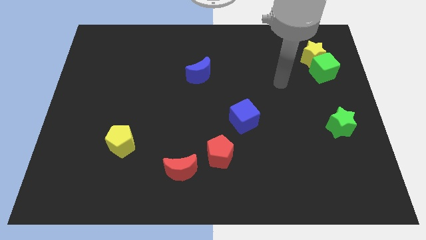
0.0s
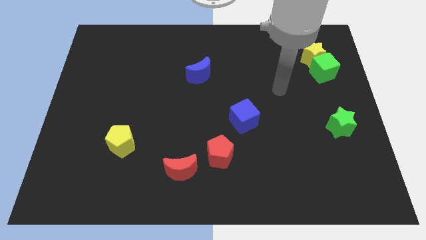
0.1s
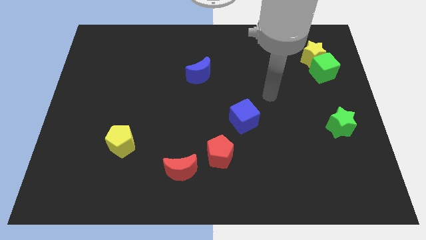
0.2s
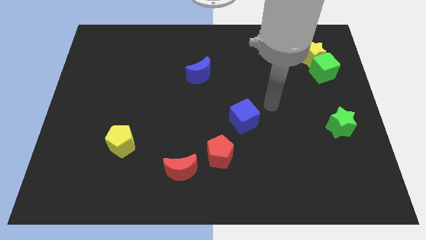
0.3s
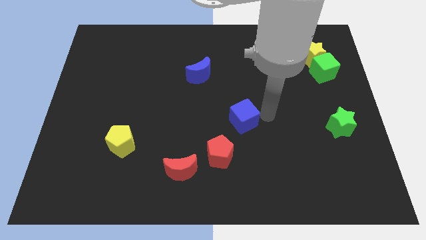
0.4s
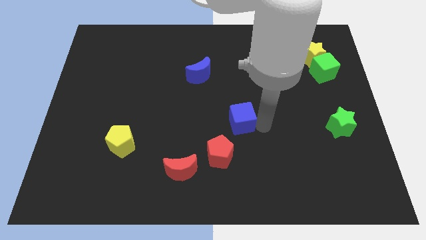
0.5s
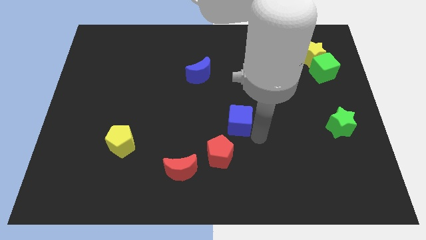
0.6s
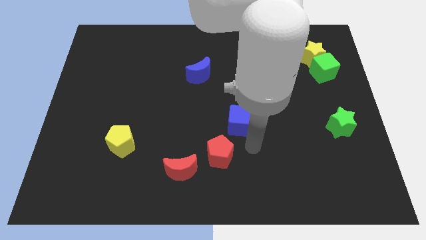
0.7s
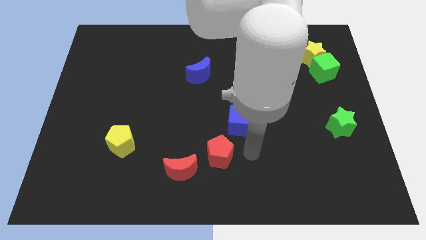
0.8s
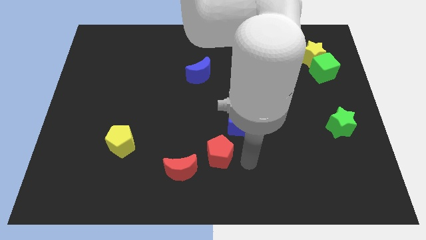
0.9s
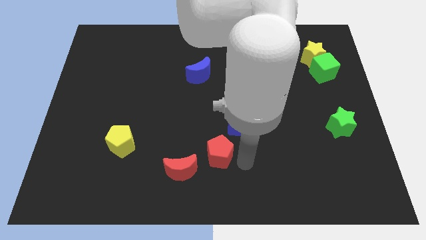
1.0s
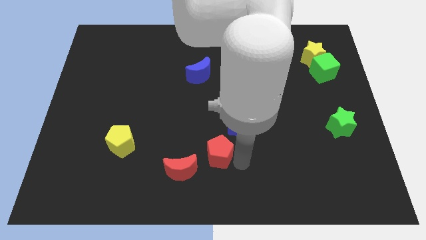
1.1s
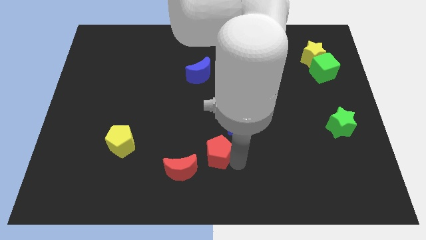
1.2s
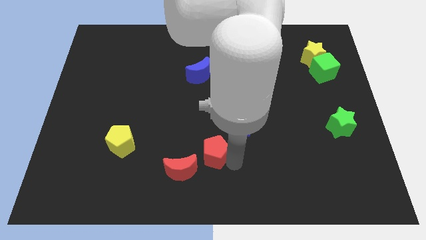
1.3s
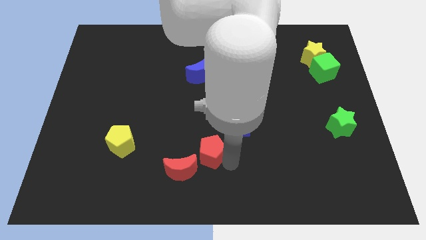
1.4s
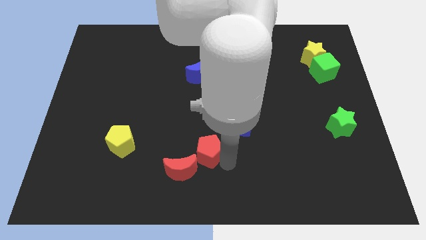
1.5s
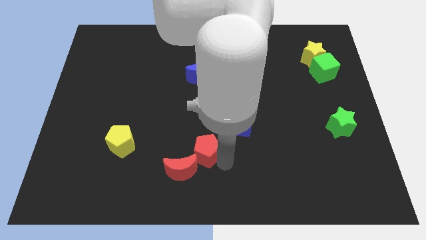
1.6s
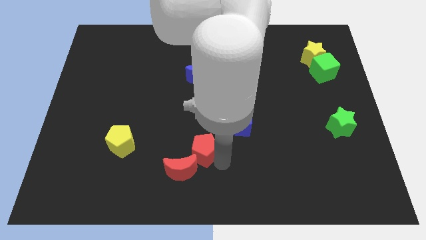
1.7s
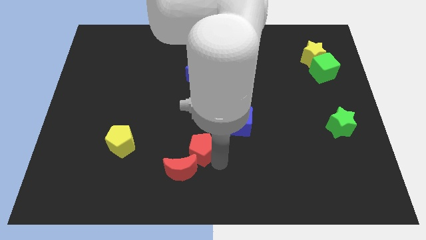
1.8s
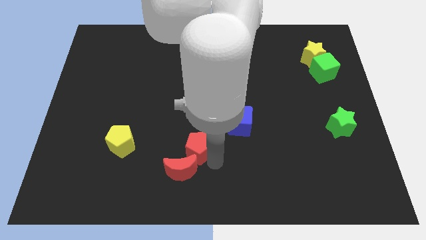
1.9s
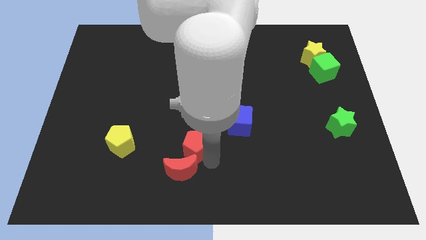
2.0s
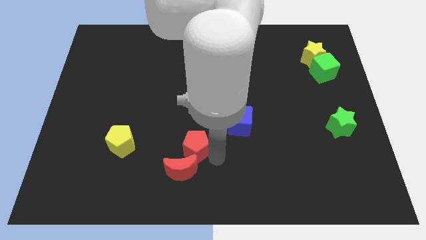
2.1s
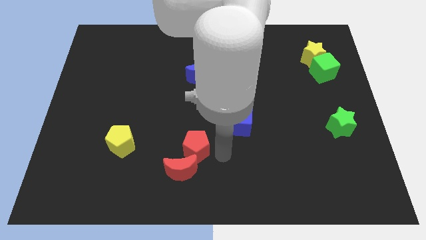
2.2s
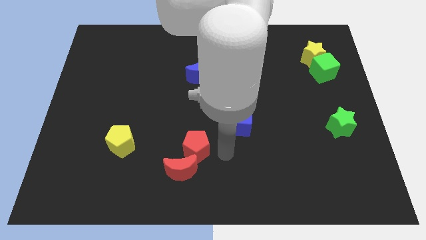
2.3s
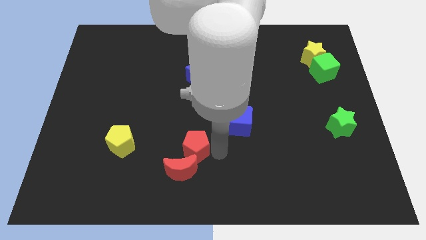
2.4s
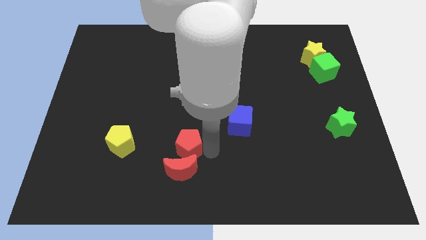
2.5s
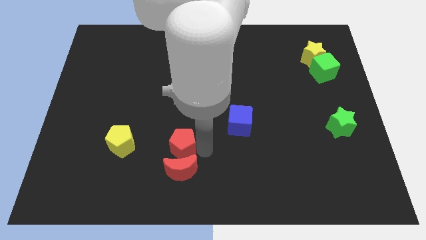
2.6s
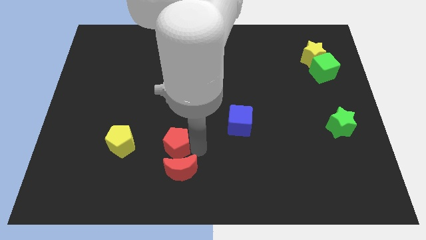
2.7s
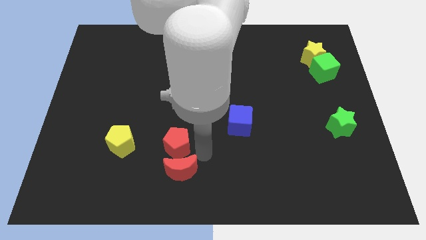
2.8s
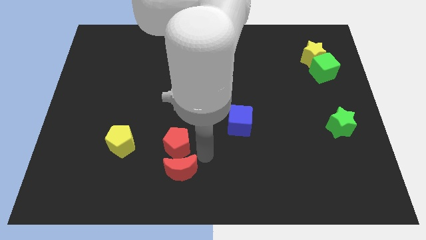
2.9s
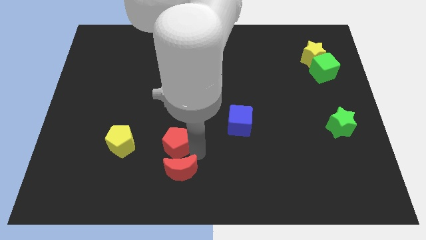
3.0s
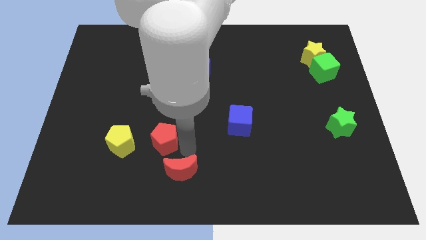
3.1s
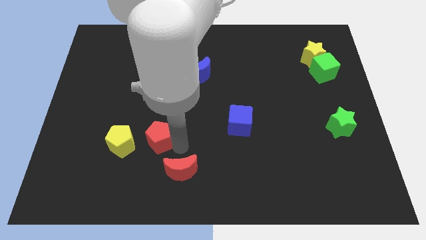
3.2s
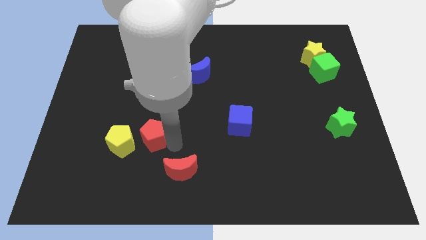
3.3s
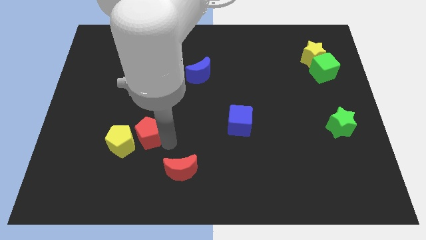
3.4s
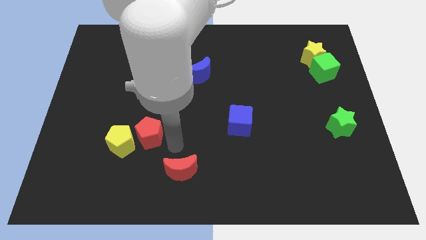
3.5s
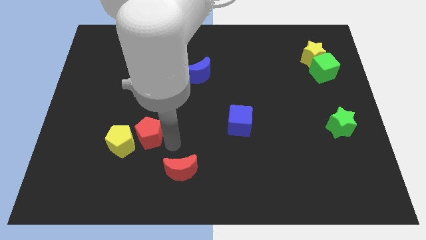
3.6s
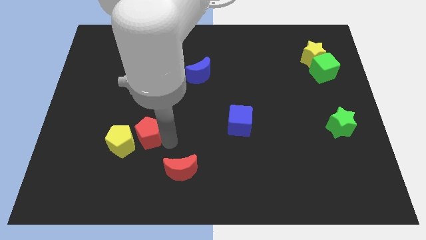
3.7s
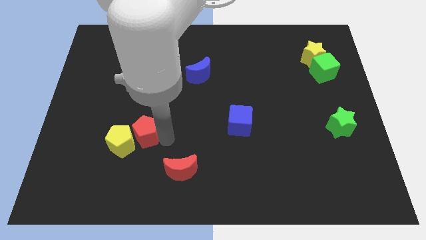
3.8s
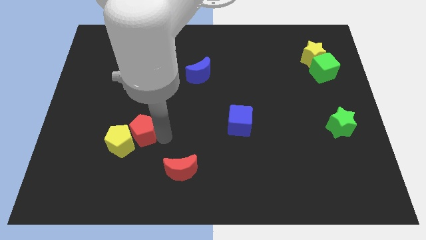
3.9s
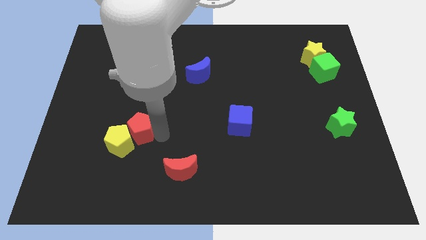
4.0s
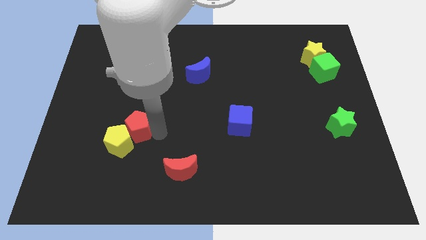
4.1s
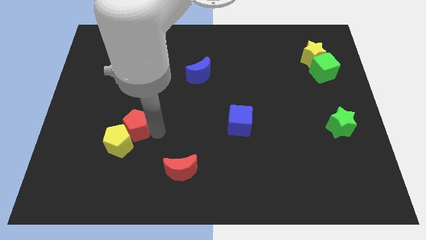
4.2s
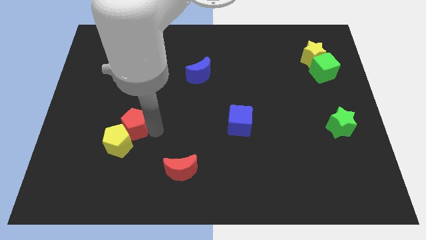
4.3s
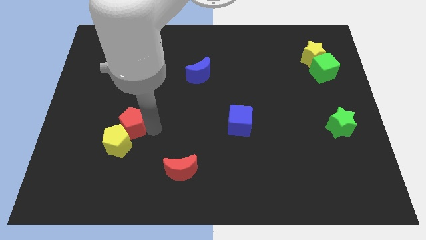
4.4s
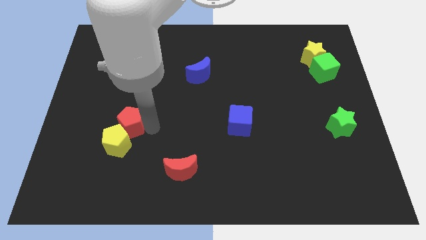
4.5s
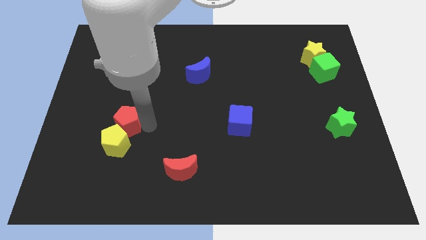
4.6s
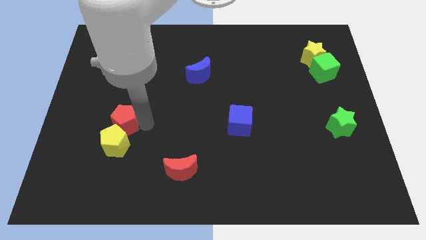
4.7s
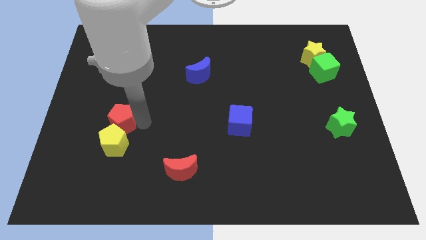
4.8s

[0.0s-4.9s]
slide the red pentagon diagonally up and to the left of the yellow pentagon

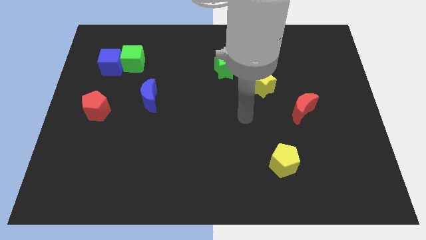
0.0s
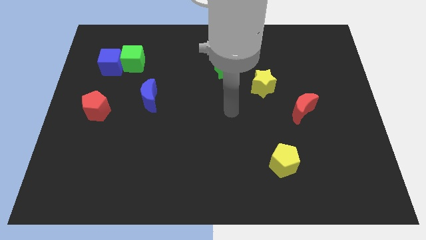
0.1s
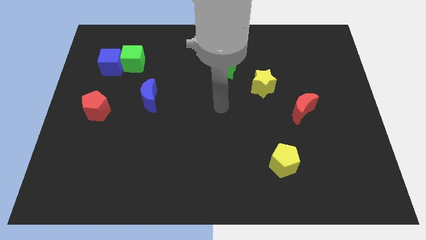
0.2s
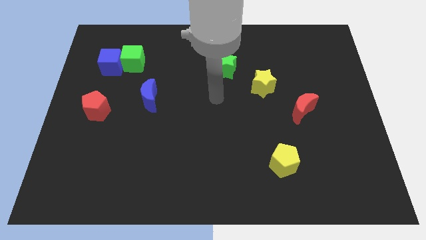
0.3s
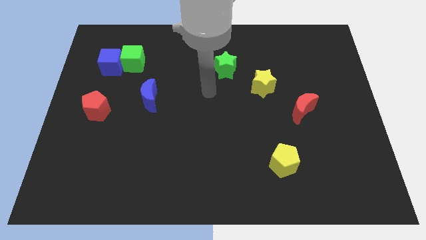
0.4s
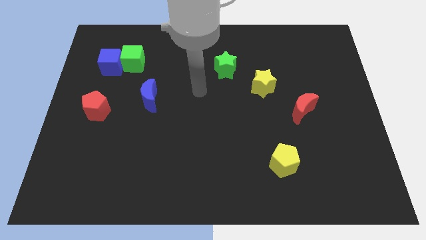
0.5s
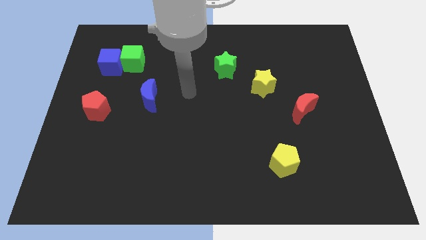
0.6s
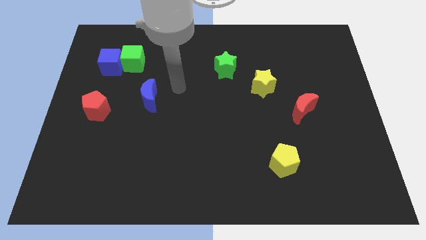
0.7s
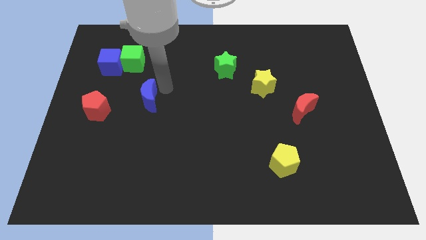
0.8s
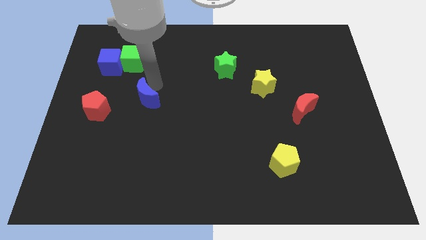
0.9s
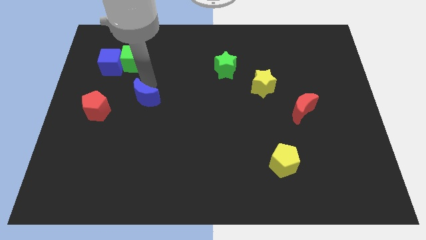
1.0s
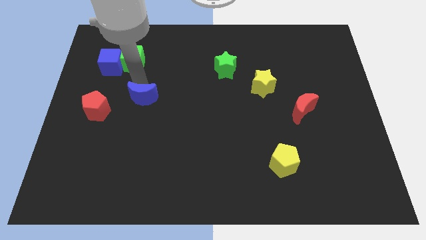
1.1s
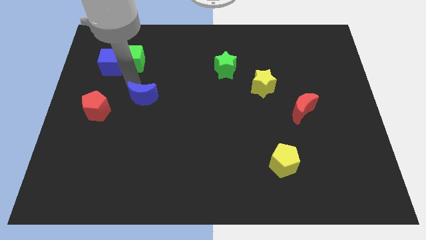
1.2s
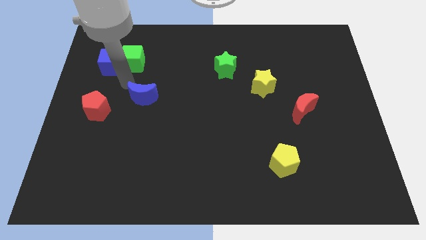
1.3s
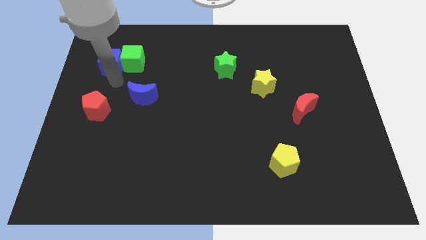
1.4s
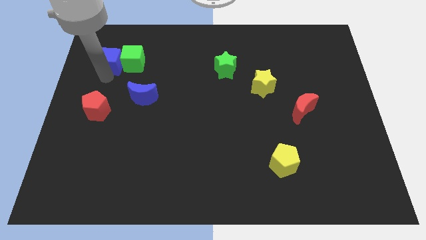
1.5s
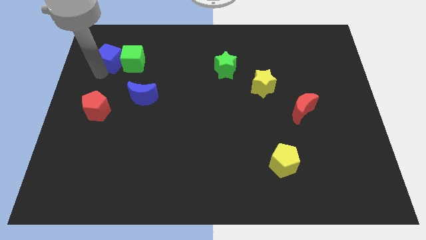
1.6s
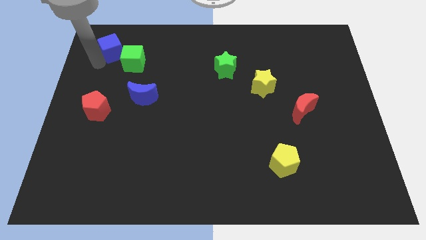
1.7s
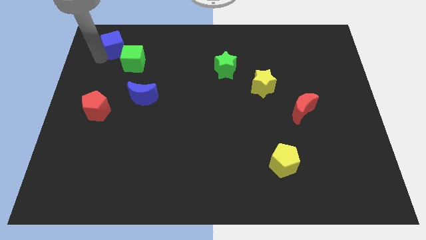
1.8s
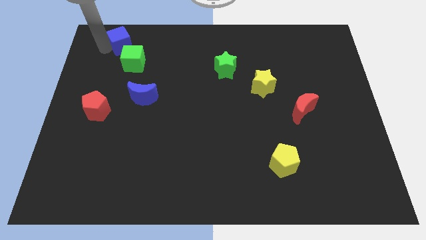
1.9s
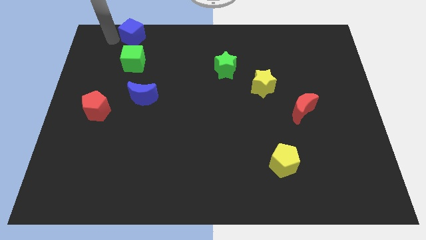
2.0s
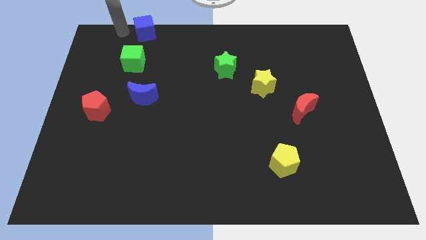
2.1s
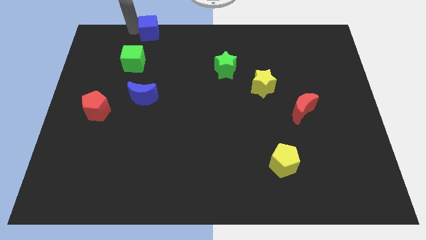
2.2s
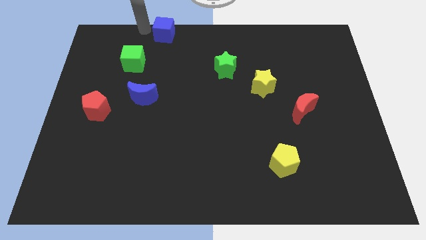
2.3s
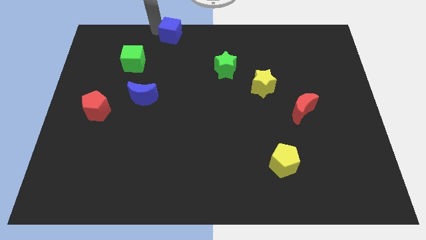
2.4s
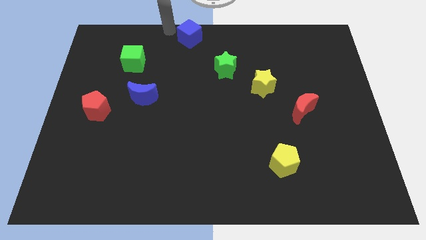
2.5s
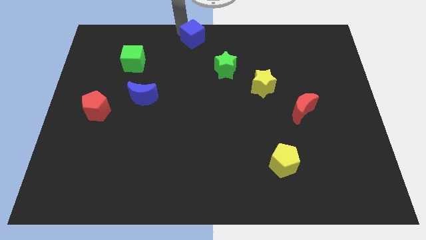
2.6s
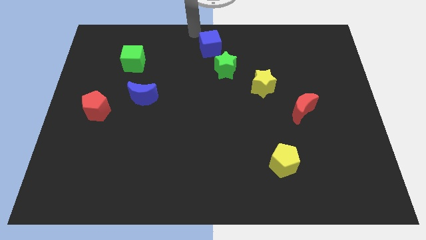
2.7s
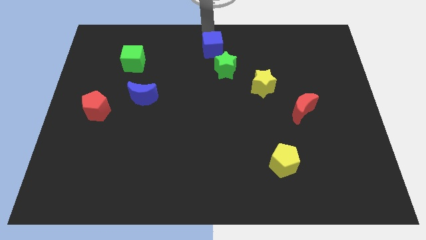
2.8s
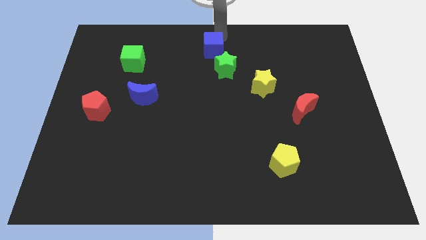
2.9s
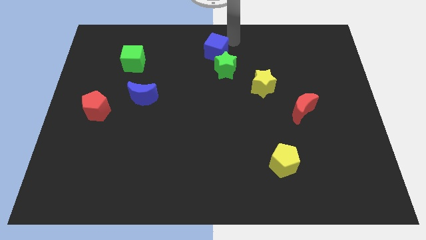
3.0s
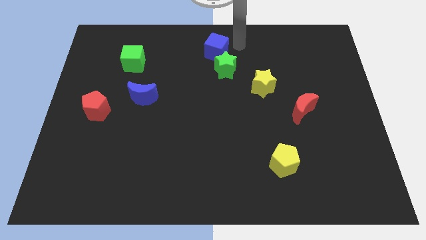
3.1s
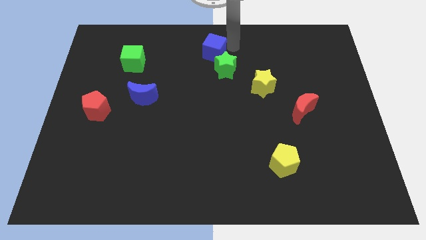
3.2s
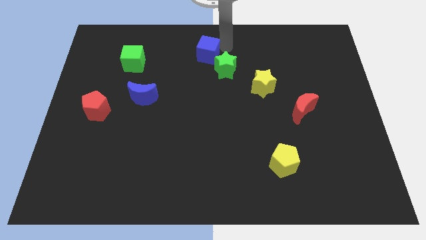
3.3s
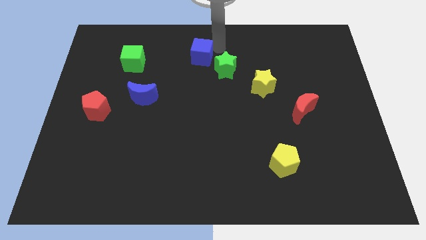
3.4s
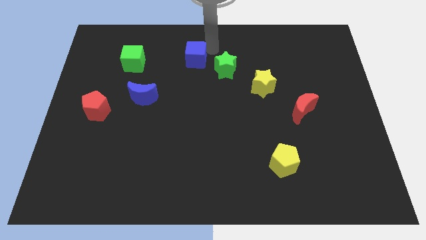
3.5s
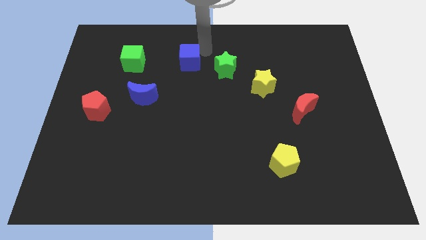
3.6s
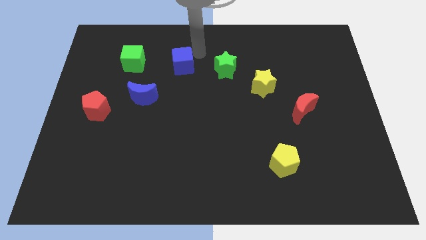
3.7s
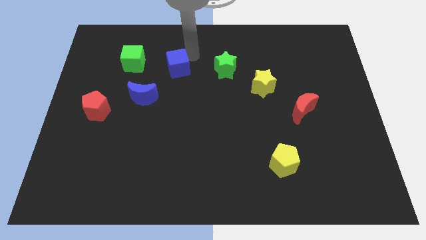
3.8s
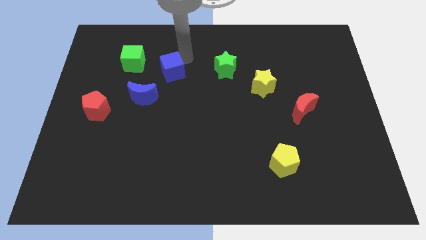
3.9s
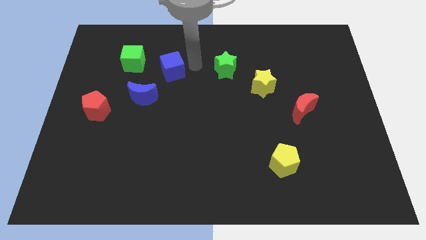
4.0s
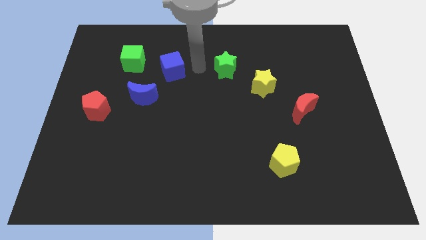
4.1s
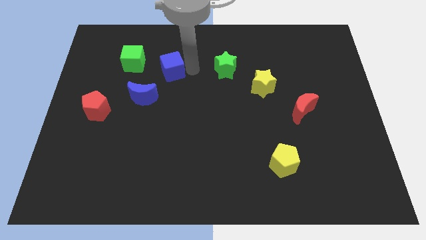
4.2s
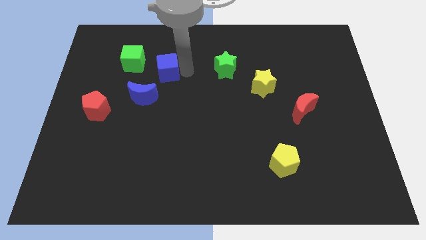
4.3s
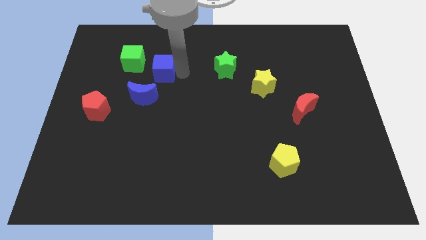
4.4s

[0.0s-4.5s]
push the blue cube to the top of the blue moon
